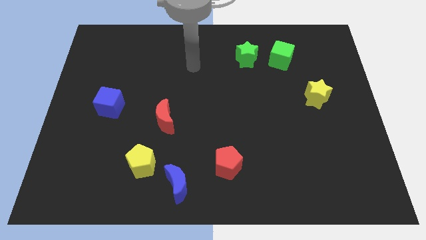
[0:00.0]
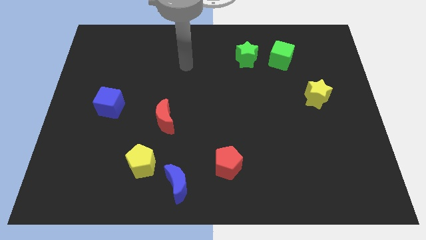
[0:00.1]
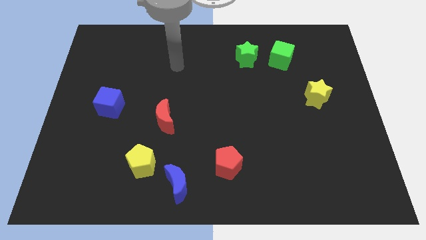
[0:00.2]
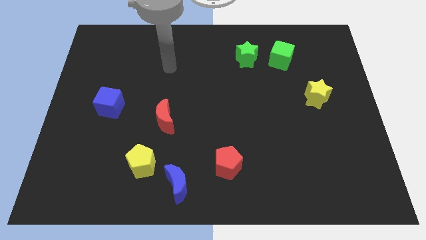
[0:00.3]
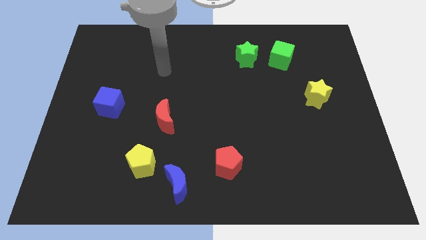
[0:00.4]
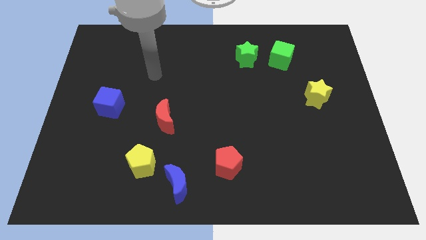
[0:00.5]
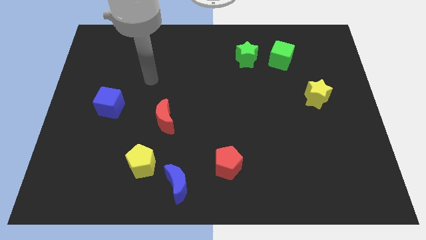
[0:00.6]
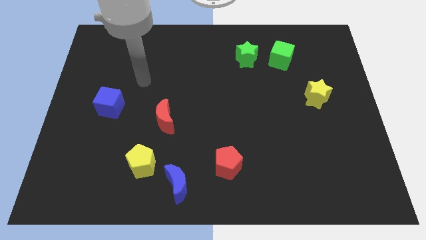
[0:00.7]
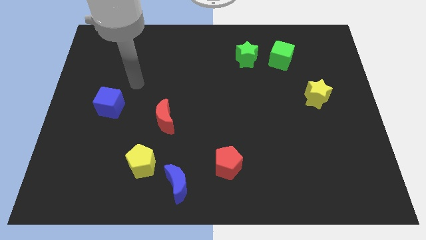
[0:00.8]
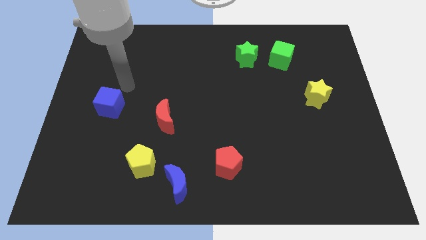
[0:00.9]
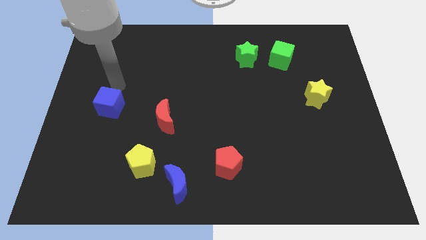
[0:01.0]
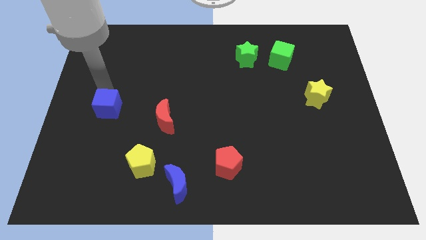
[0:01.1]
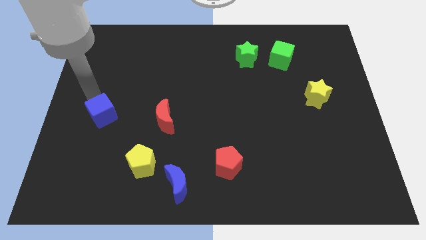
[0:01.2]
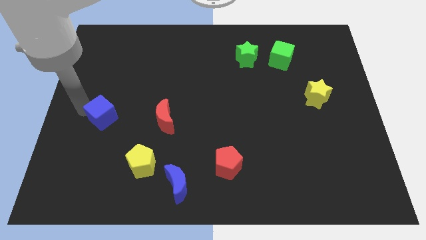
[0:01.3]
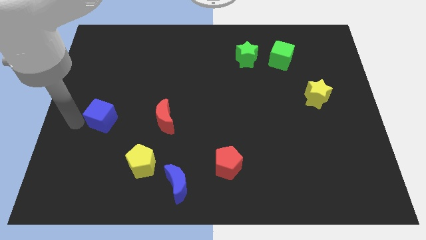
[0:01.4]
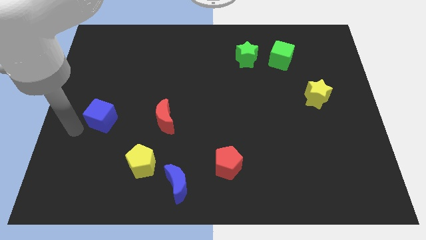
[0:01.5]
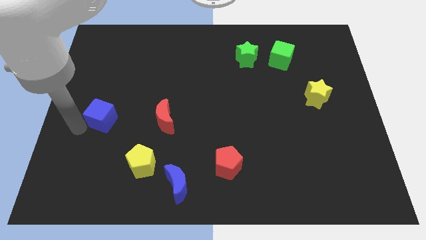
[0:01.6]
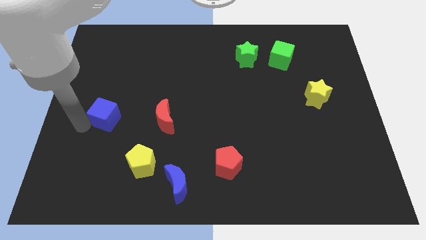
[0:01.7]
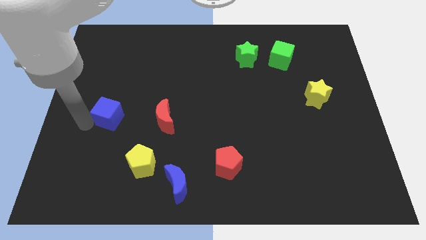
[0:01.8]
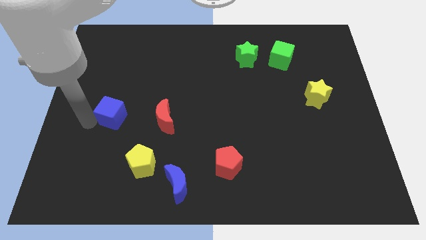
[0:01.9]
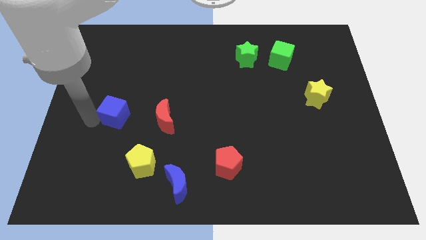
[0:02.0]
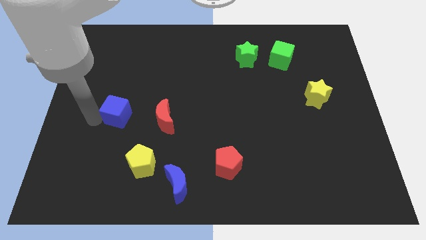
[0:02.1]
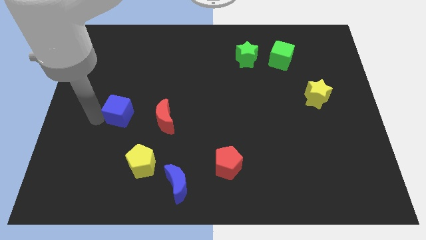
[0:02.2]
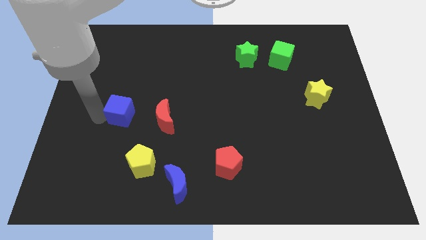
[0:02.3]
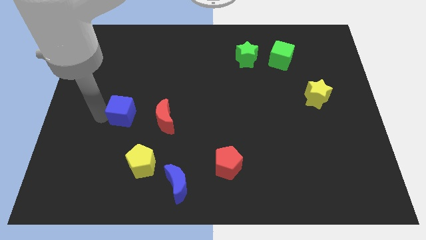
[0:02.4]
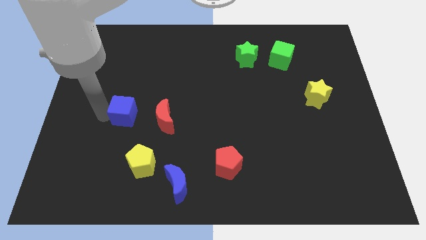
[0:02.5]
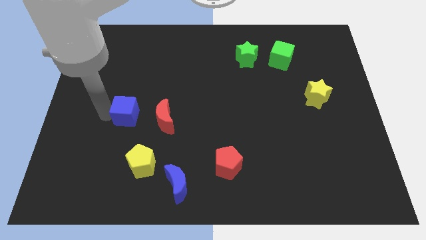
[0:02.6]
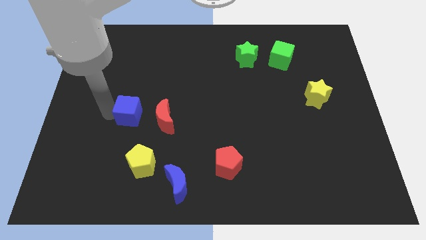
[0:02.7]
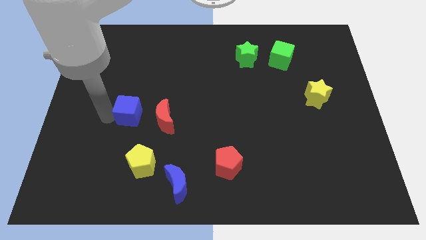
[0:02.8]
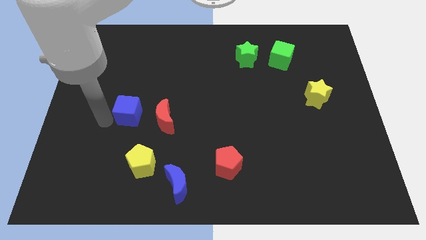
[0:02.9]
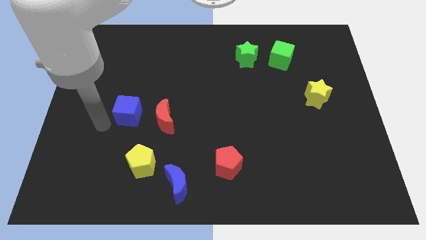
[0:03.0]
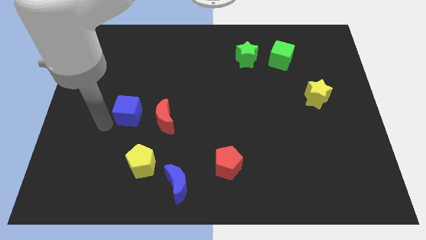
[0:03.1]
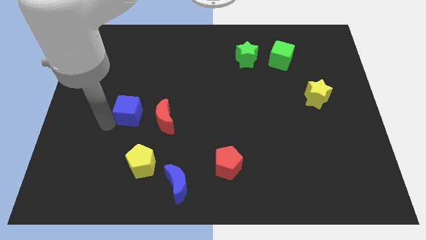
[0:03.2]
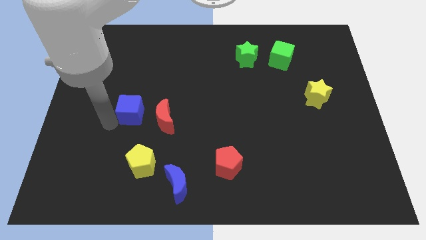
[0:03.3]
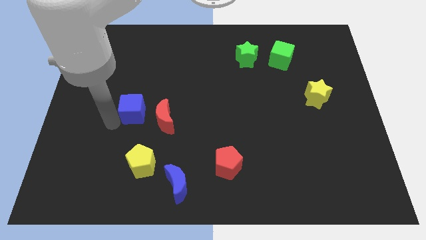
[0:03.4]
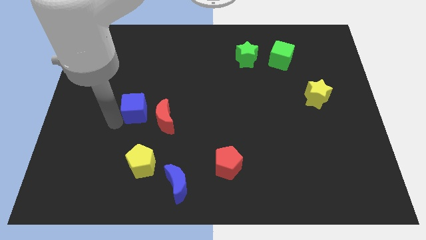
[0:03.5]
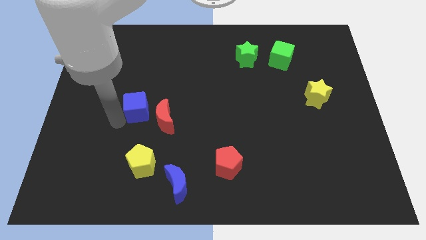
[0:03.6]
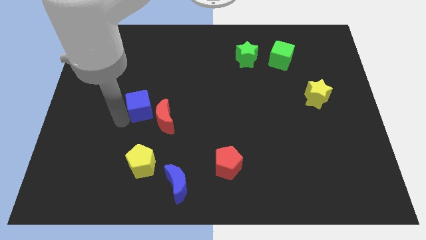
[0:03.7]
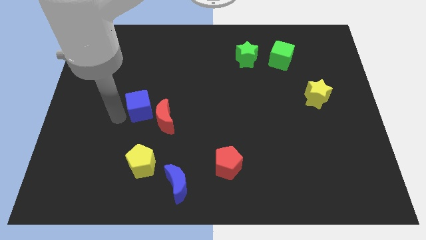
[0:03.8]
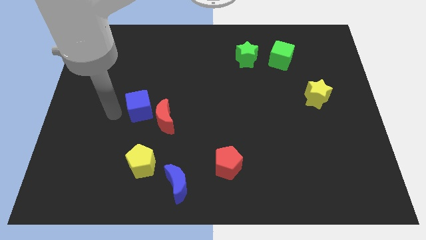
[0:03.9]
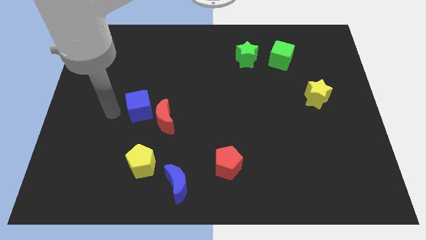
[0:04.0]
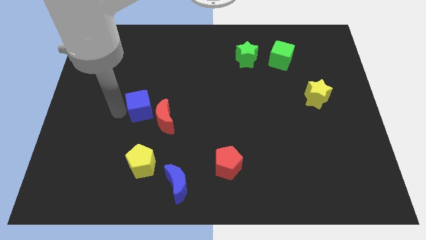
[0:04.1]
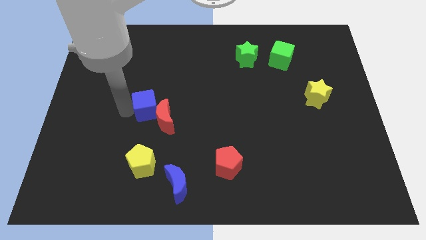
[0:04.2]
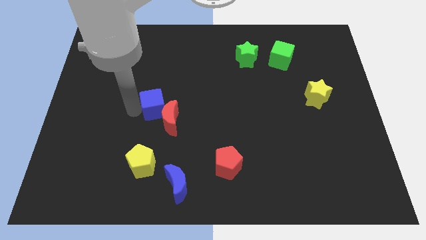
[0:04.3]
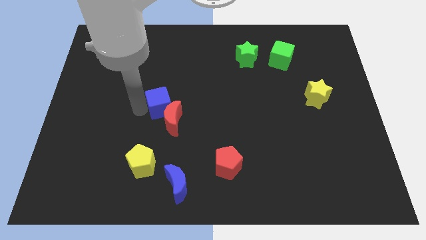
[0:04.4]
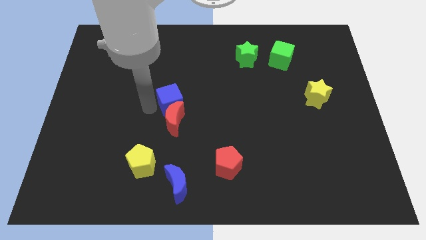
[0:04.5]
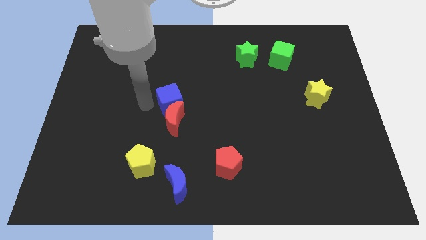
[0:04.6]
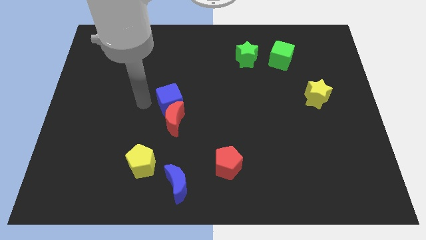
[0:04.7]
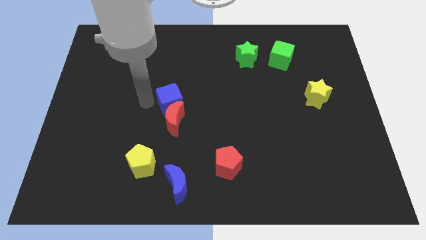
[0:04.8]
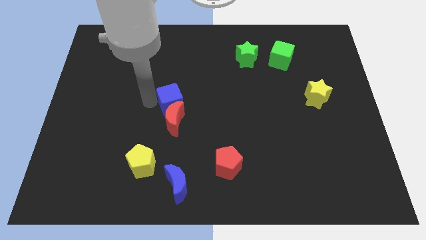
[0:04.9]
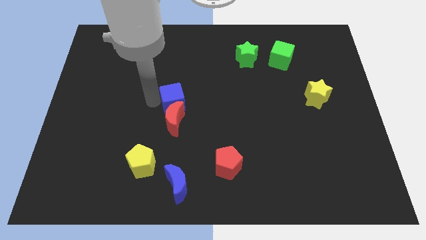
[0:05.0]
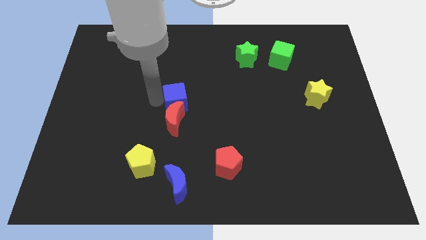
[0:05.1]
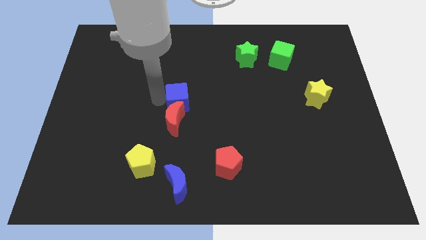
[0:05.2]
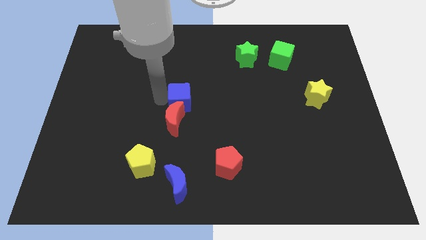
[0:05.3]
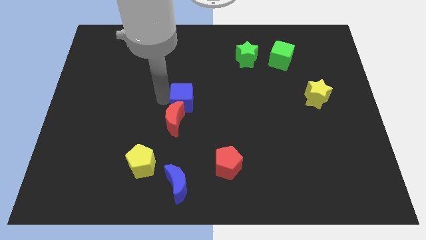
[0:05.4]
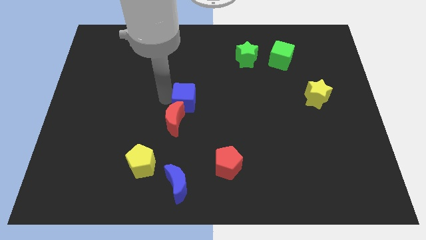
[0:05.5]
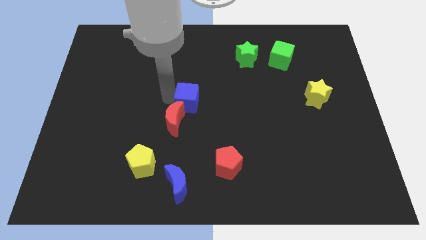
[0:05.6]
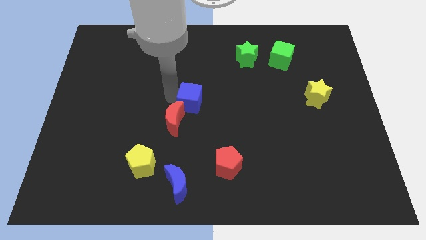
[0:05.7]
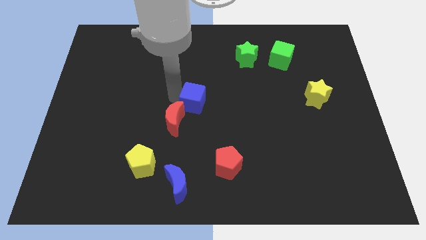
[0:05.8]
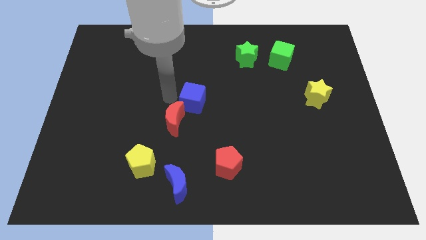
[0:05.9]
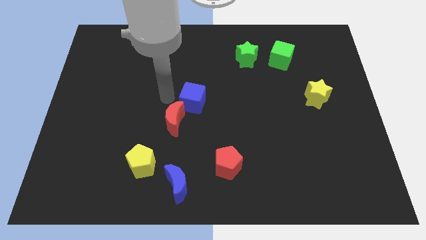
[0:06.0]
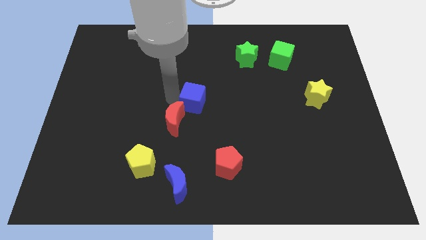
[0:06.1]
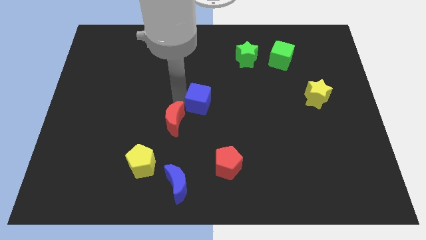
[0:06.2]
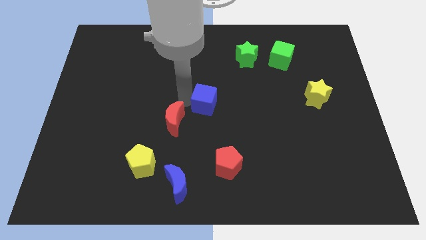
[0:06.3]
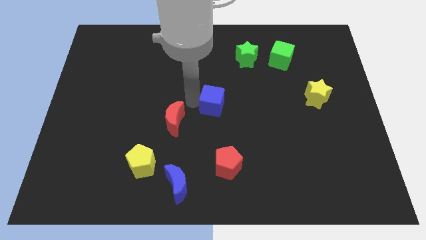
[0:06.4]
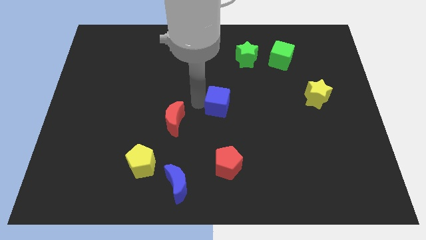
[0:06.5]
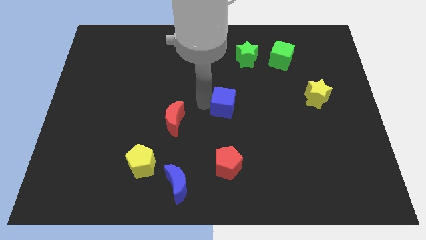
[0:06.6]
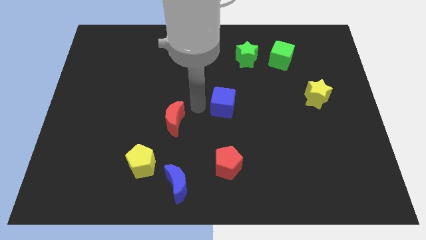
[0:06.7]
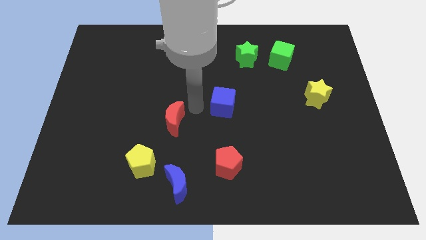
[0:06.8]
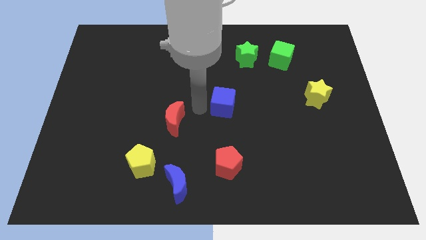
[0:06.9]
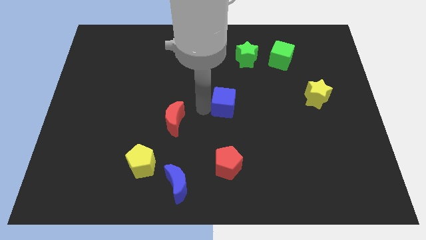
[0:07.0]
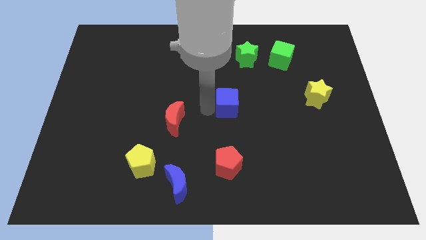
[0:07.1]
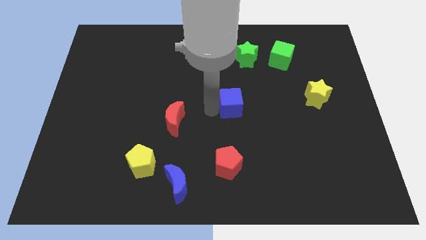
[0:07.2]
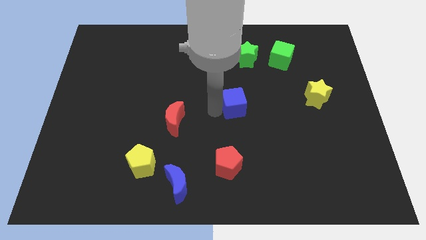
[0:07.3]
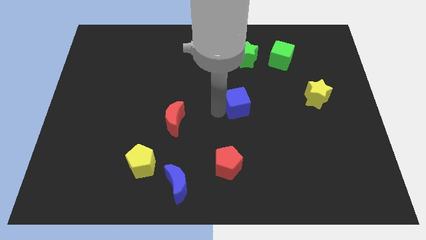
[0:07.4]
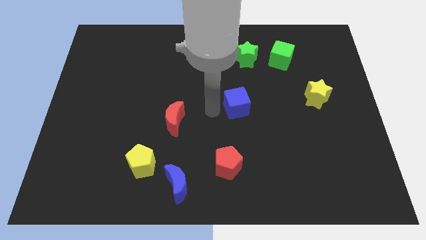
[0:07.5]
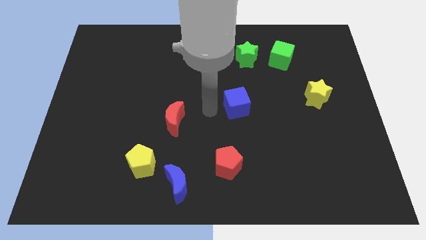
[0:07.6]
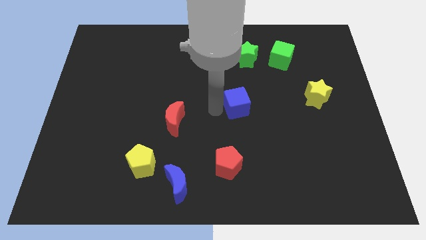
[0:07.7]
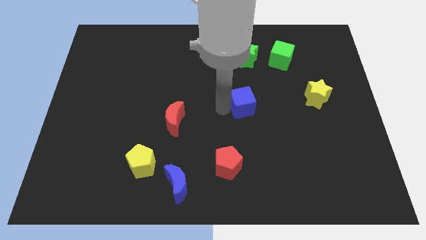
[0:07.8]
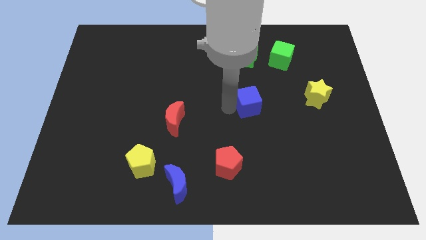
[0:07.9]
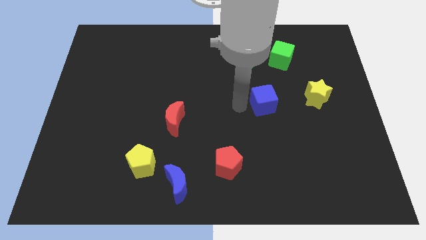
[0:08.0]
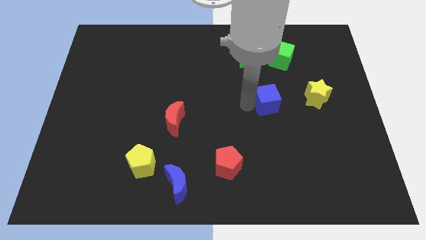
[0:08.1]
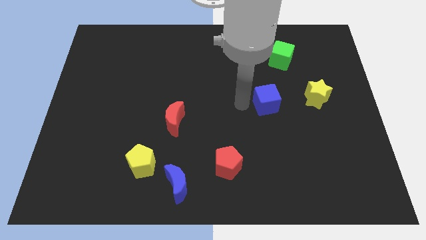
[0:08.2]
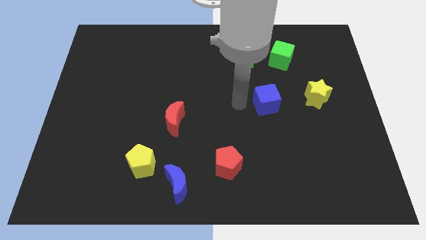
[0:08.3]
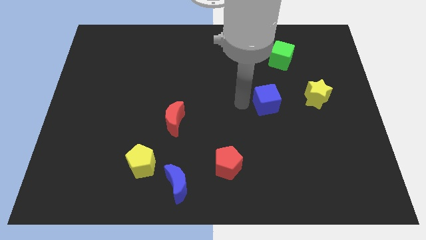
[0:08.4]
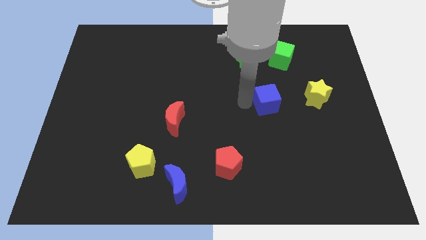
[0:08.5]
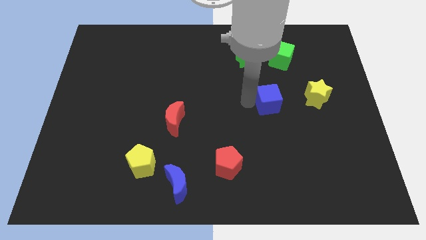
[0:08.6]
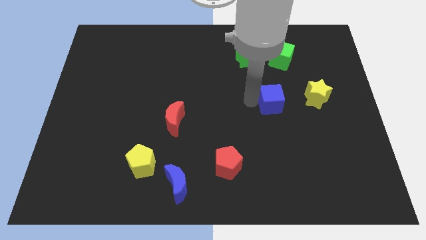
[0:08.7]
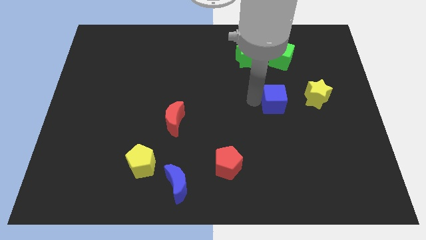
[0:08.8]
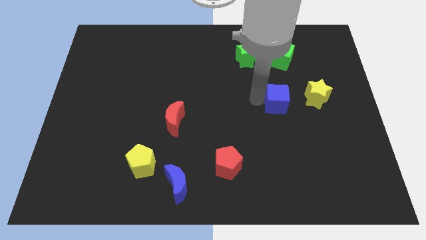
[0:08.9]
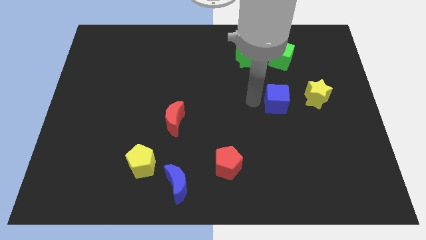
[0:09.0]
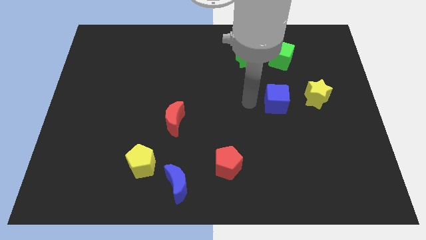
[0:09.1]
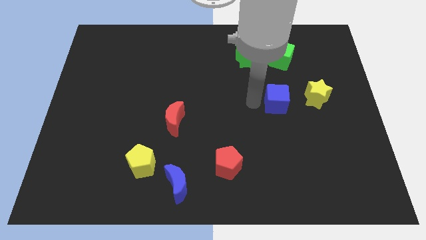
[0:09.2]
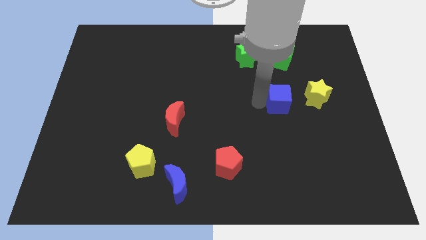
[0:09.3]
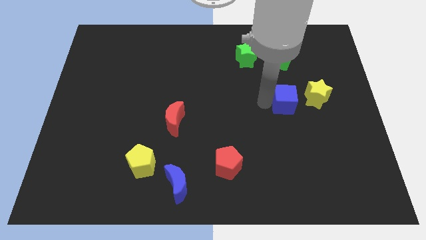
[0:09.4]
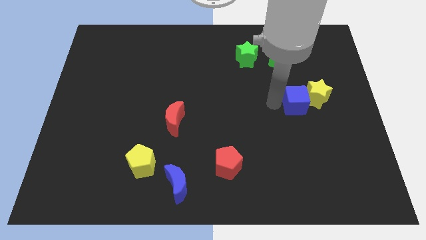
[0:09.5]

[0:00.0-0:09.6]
push the blue cube close to the yellow star
